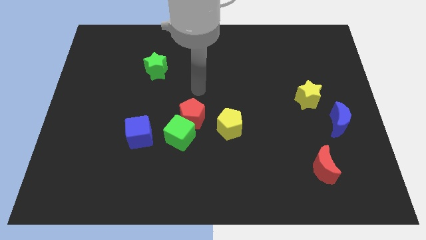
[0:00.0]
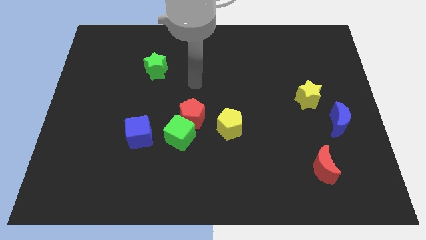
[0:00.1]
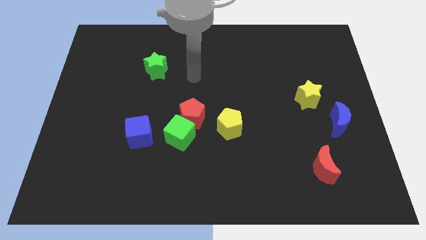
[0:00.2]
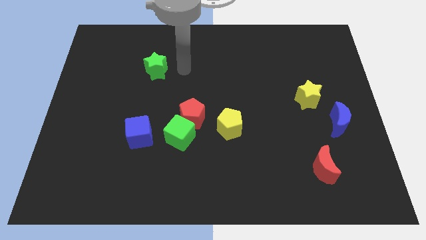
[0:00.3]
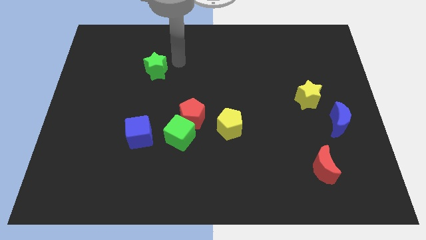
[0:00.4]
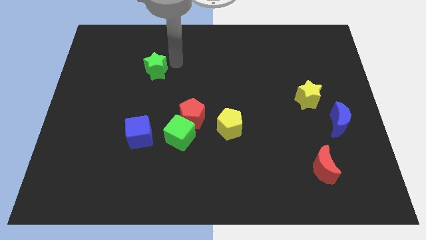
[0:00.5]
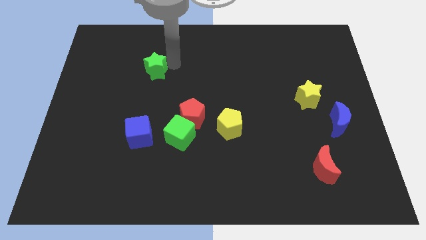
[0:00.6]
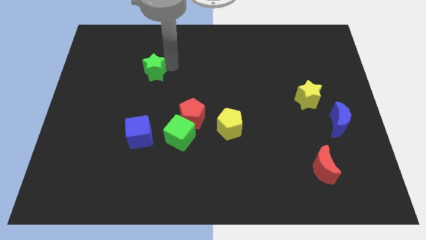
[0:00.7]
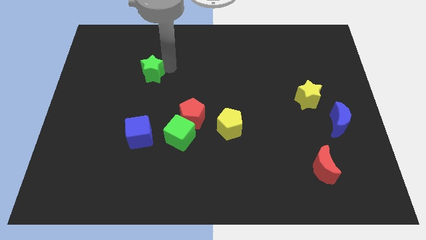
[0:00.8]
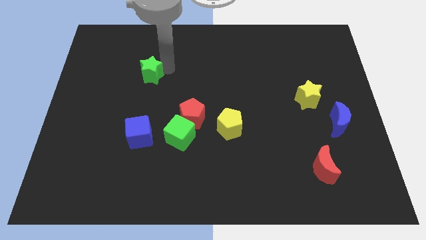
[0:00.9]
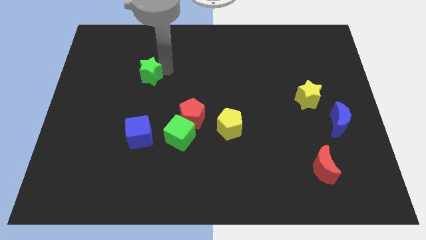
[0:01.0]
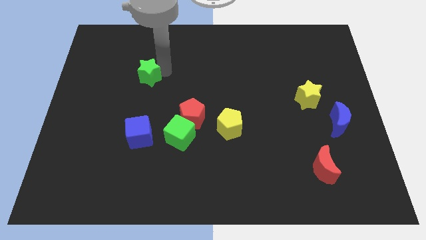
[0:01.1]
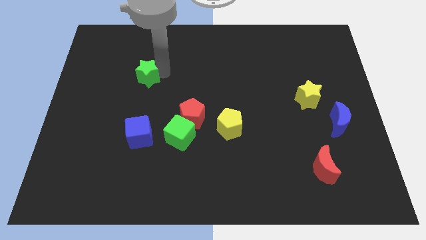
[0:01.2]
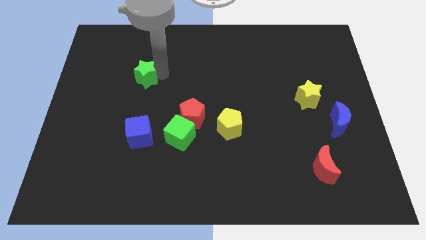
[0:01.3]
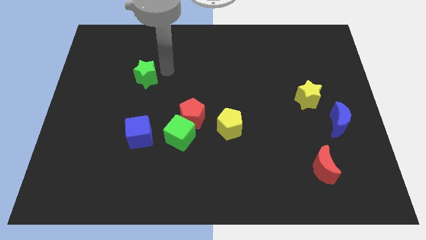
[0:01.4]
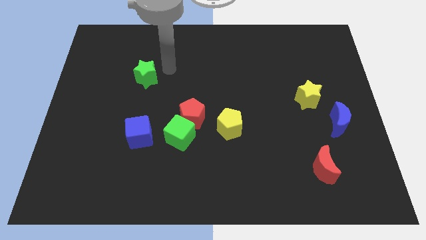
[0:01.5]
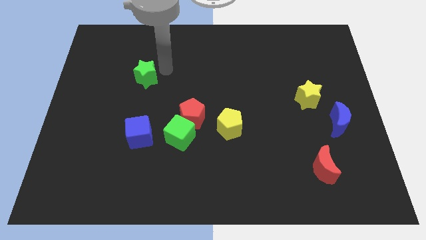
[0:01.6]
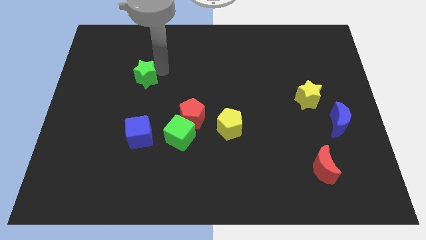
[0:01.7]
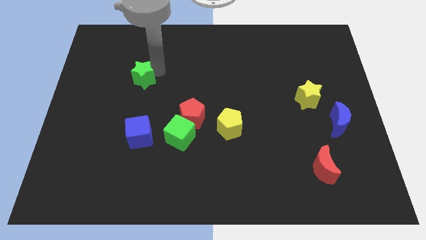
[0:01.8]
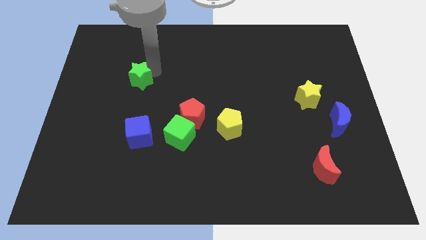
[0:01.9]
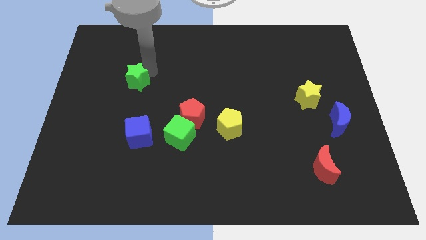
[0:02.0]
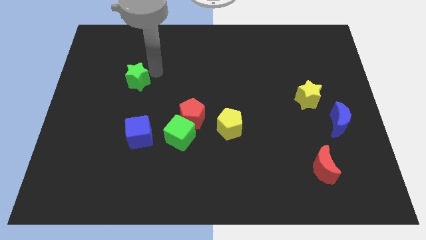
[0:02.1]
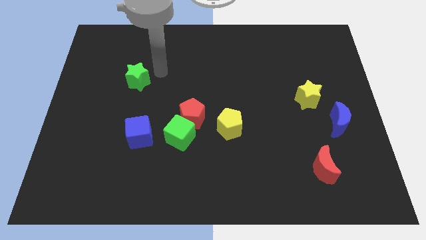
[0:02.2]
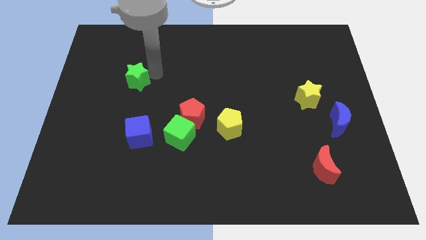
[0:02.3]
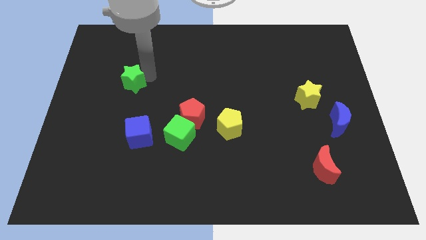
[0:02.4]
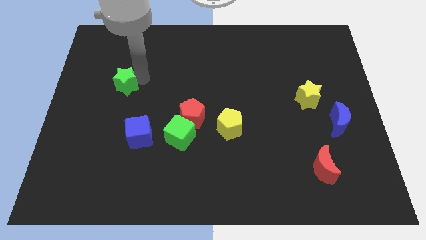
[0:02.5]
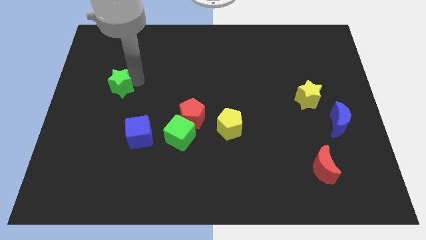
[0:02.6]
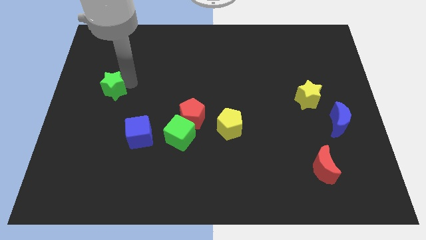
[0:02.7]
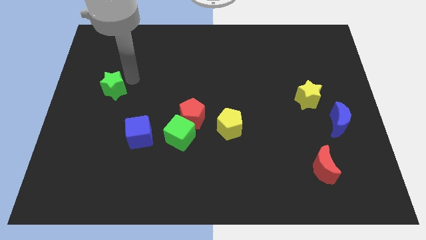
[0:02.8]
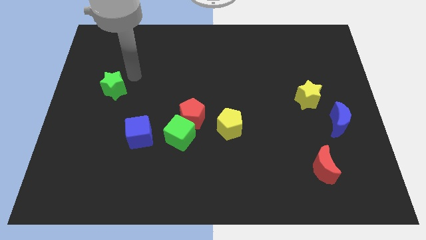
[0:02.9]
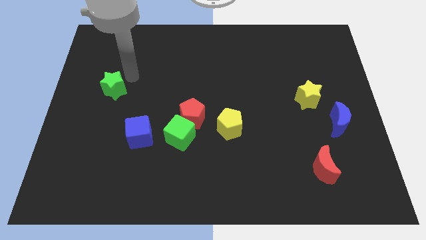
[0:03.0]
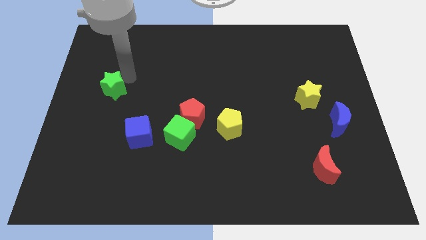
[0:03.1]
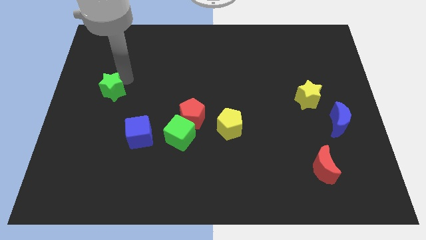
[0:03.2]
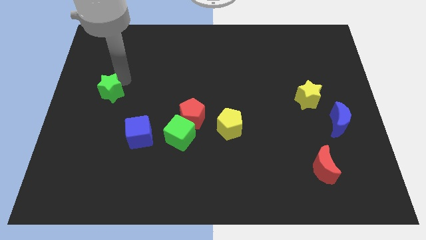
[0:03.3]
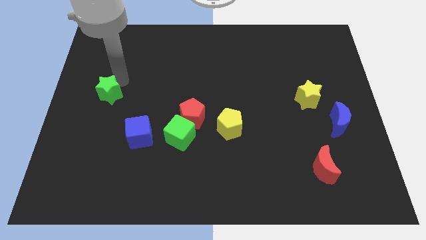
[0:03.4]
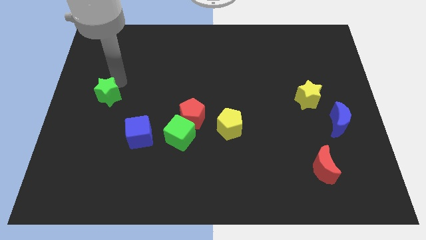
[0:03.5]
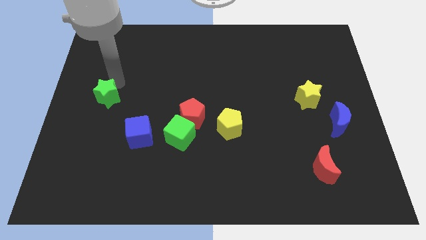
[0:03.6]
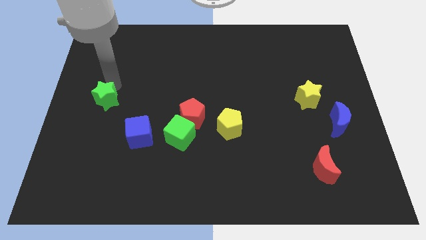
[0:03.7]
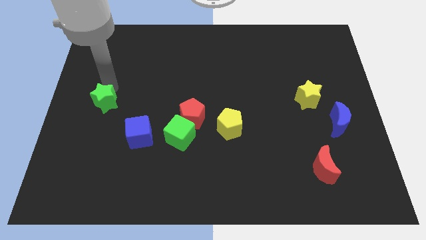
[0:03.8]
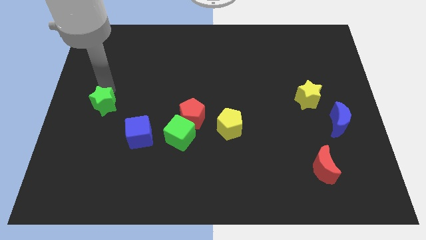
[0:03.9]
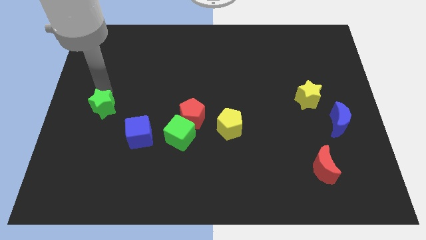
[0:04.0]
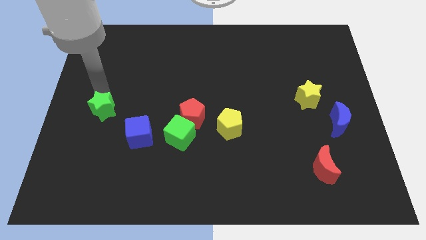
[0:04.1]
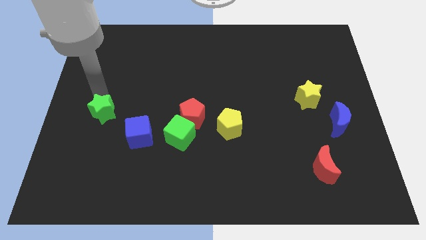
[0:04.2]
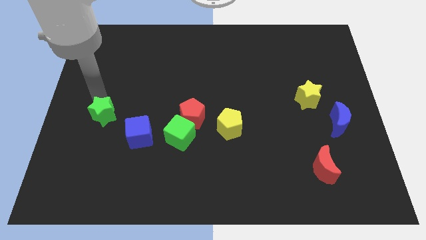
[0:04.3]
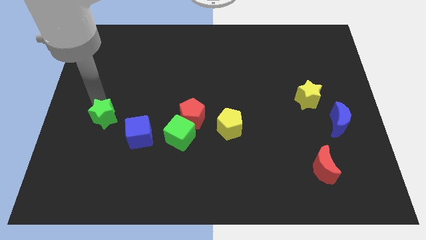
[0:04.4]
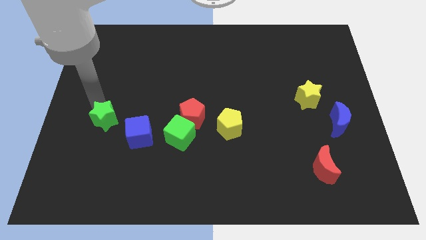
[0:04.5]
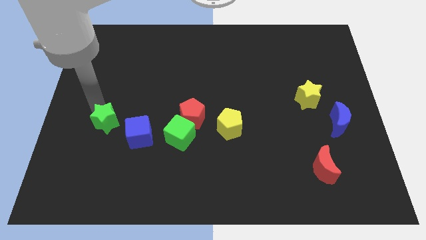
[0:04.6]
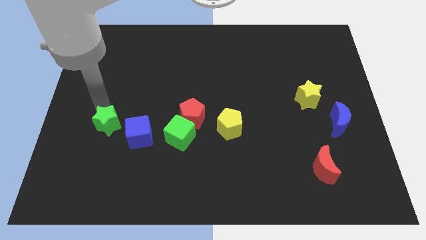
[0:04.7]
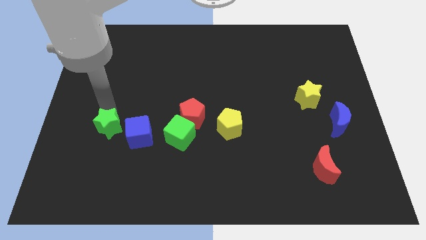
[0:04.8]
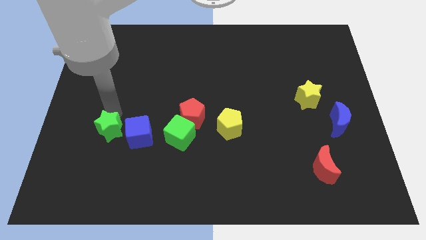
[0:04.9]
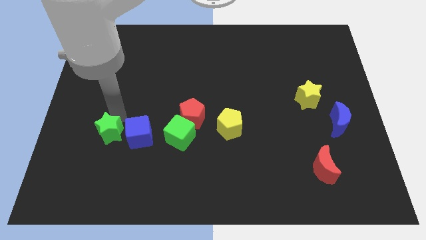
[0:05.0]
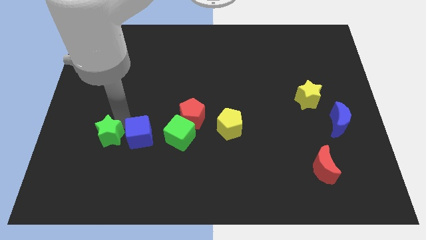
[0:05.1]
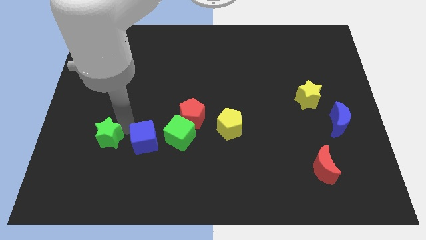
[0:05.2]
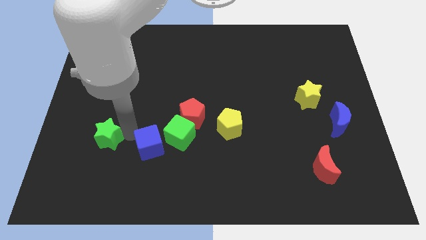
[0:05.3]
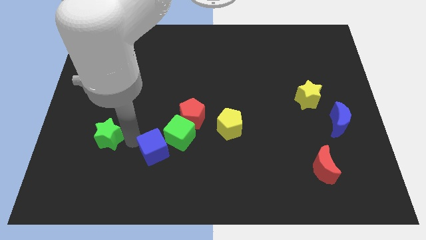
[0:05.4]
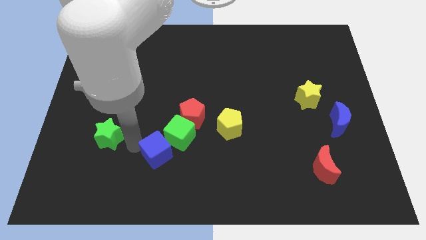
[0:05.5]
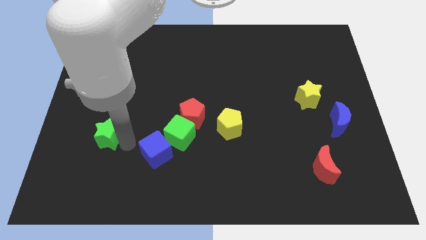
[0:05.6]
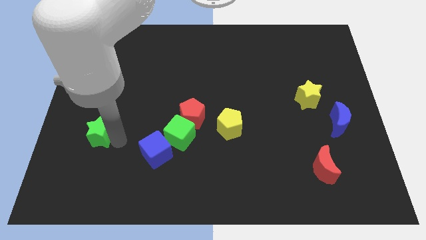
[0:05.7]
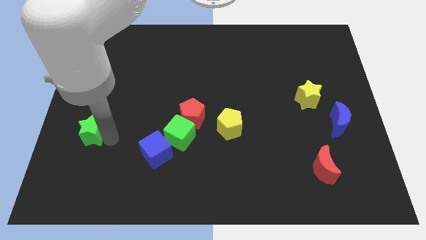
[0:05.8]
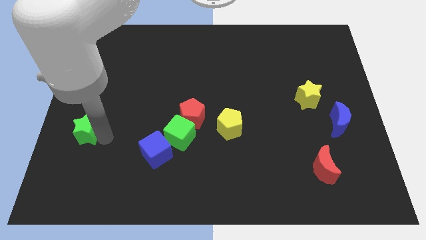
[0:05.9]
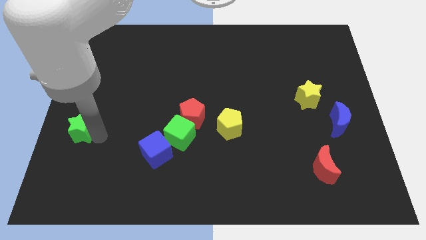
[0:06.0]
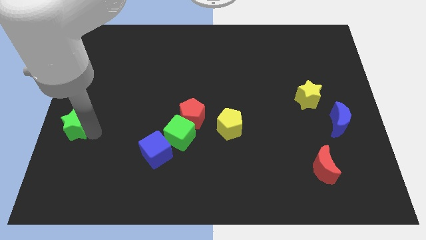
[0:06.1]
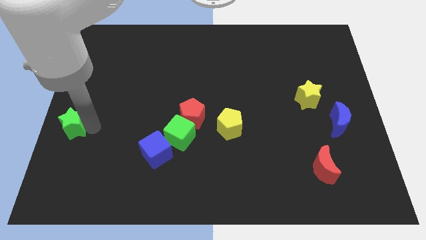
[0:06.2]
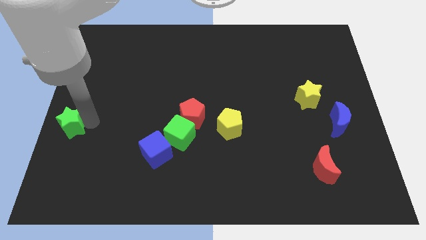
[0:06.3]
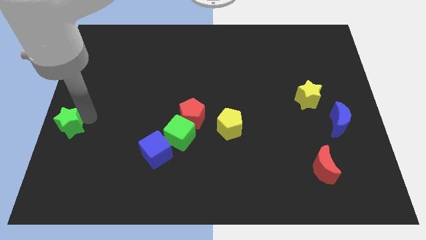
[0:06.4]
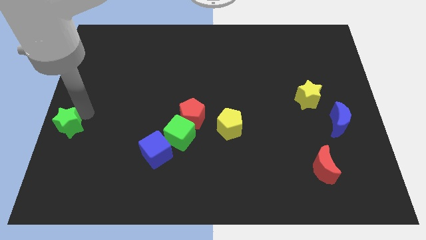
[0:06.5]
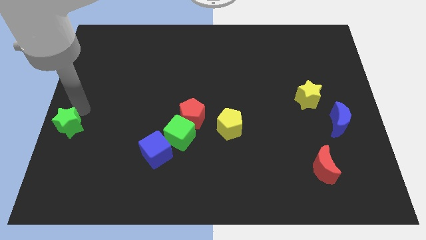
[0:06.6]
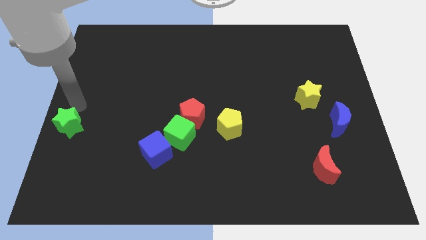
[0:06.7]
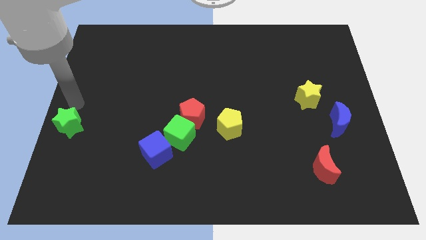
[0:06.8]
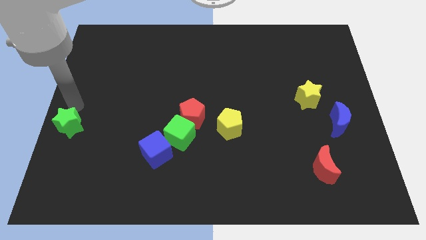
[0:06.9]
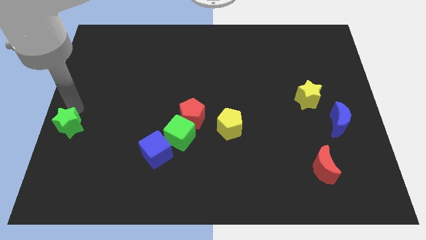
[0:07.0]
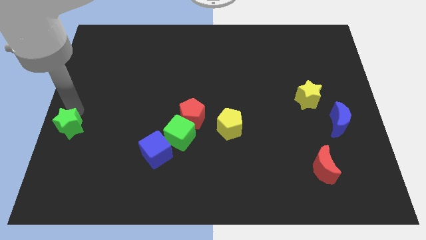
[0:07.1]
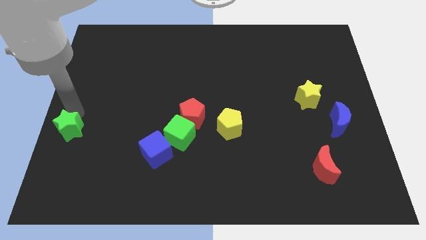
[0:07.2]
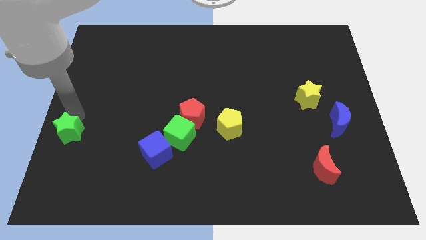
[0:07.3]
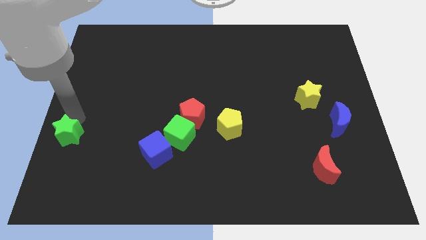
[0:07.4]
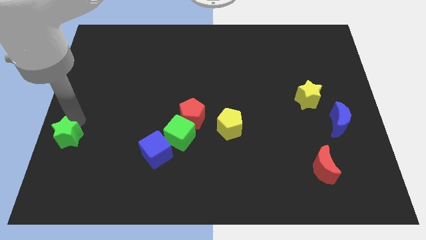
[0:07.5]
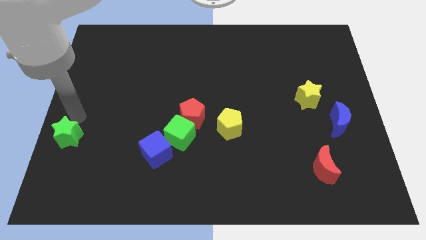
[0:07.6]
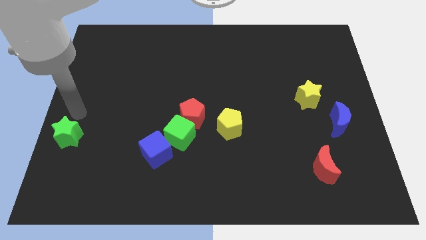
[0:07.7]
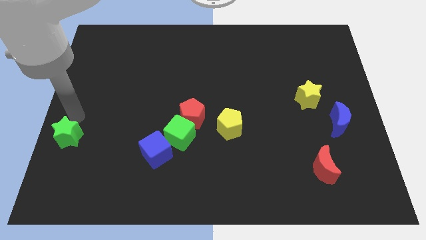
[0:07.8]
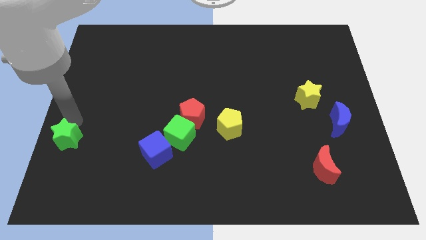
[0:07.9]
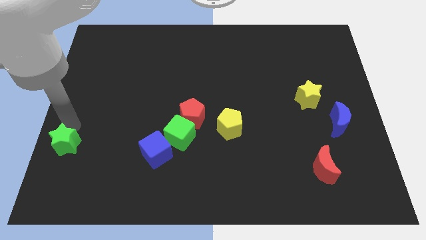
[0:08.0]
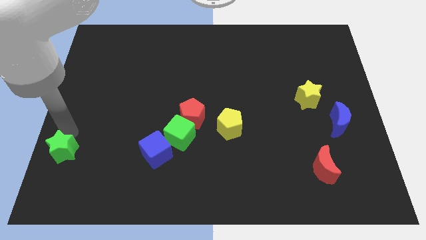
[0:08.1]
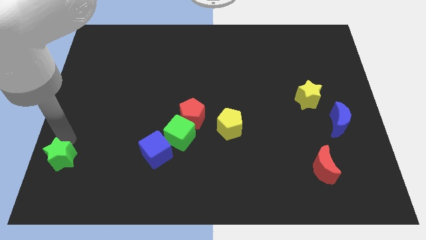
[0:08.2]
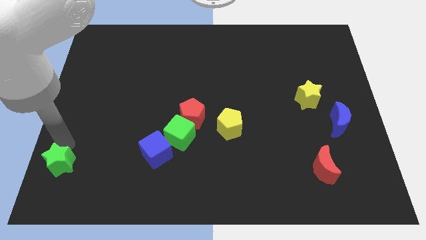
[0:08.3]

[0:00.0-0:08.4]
move the green star to the bottom left
